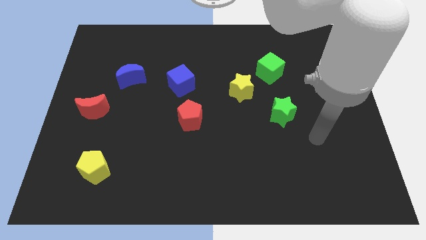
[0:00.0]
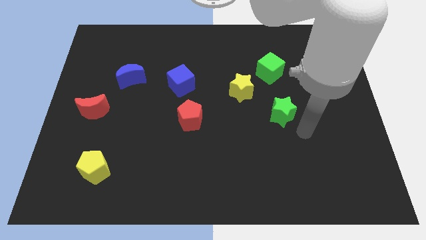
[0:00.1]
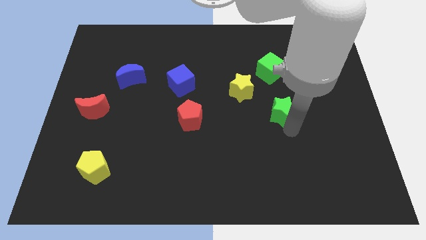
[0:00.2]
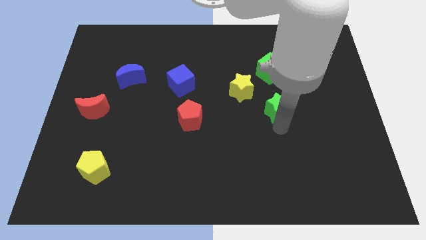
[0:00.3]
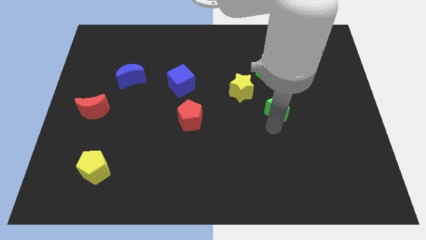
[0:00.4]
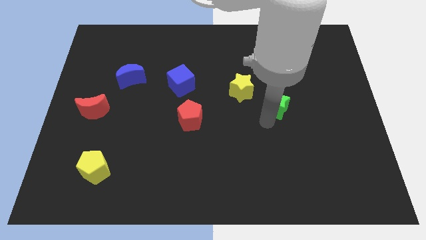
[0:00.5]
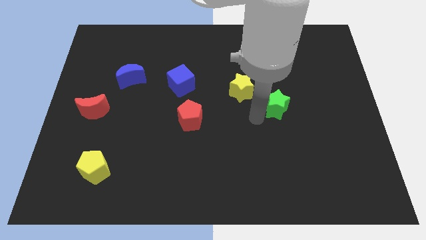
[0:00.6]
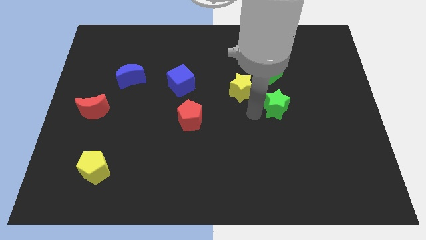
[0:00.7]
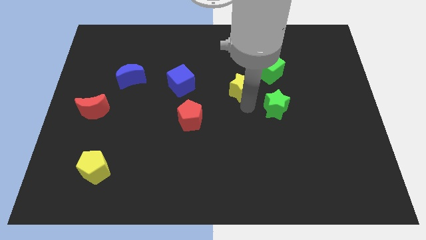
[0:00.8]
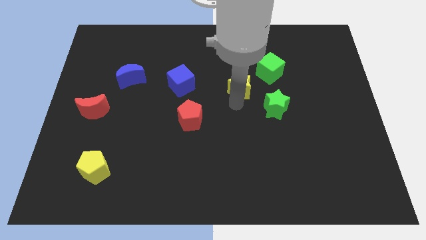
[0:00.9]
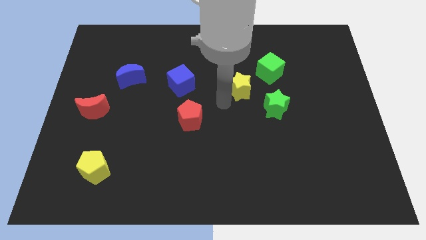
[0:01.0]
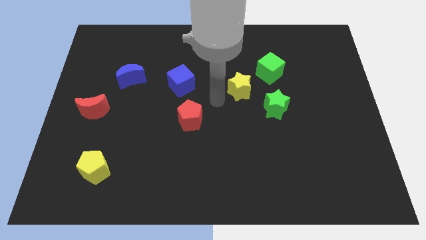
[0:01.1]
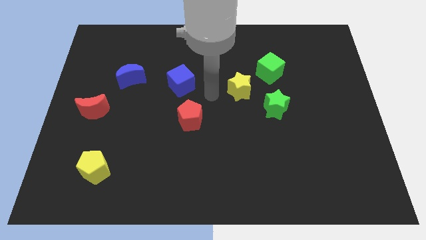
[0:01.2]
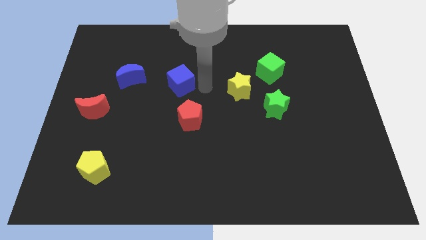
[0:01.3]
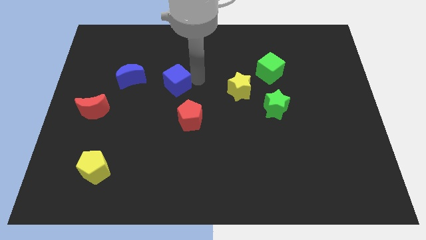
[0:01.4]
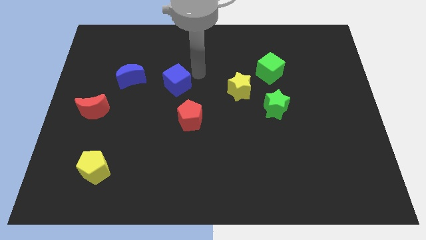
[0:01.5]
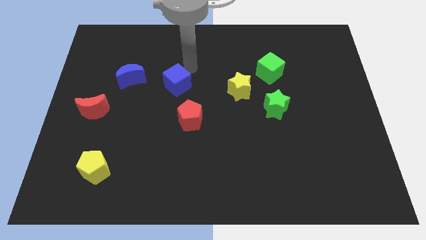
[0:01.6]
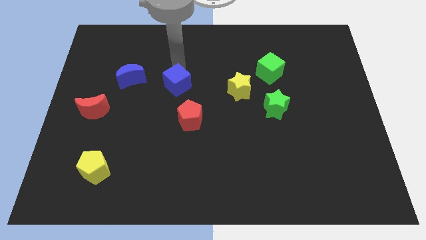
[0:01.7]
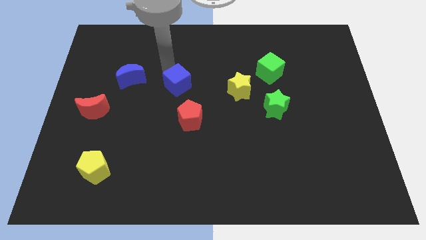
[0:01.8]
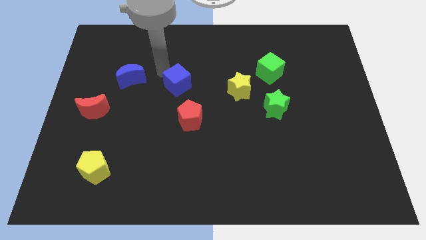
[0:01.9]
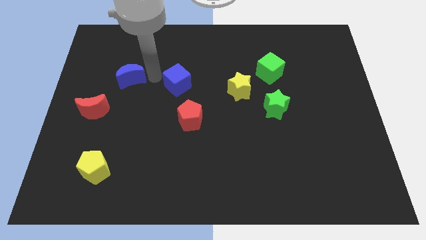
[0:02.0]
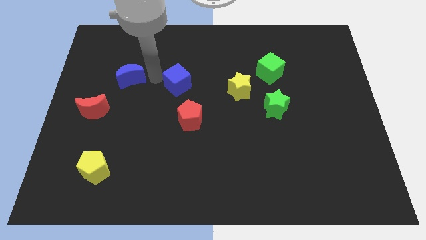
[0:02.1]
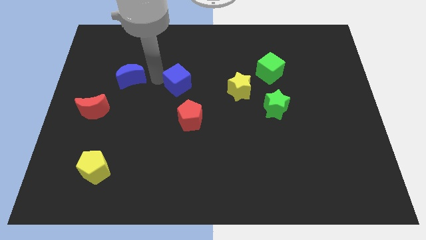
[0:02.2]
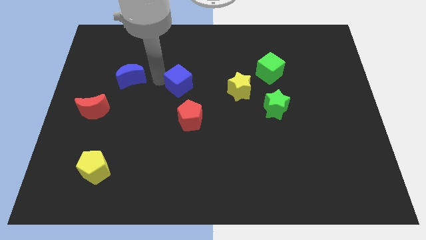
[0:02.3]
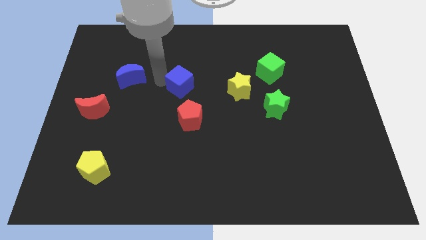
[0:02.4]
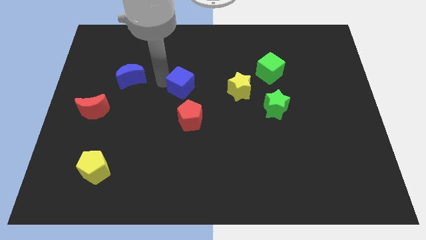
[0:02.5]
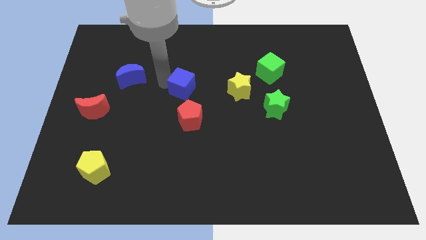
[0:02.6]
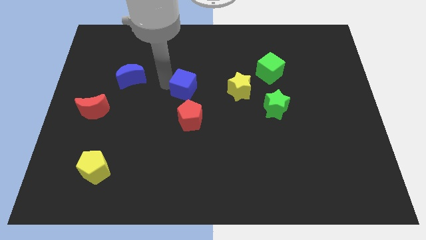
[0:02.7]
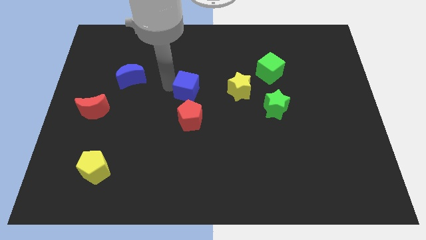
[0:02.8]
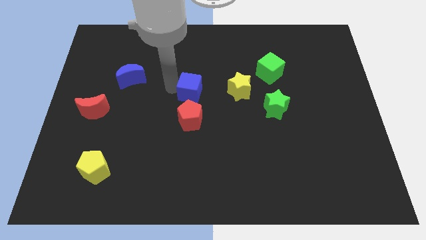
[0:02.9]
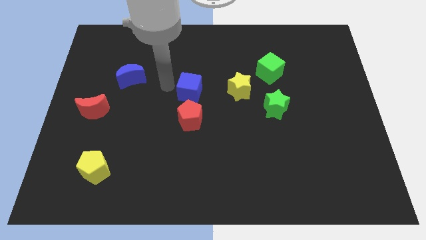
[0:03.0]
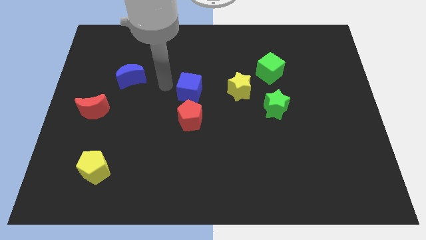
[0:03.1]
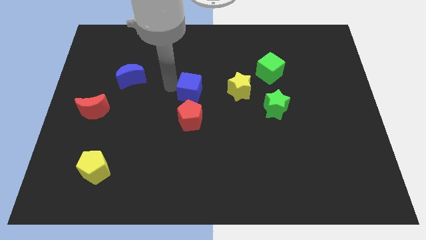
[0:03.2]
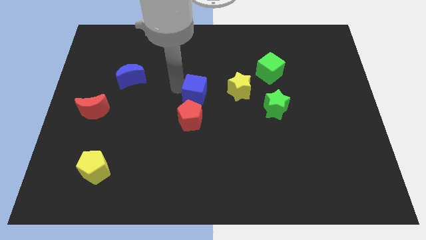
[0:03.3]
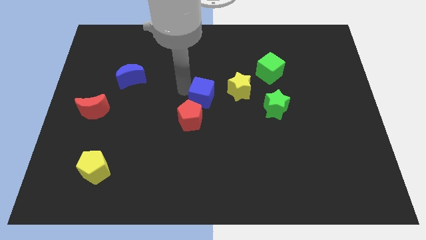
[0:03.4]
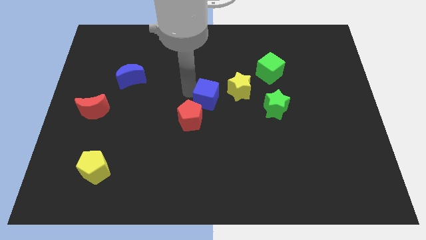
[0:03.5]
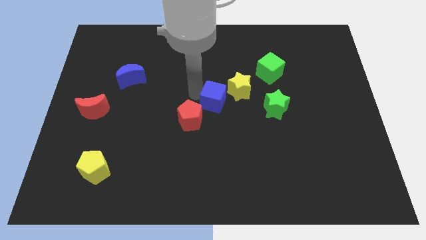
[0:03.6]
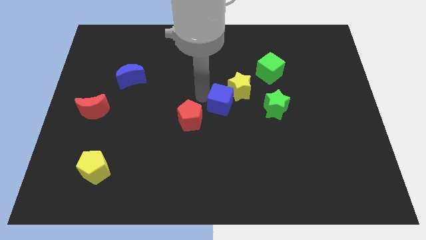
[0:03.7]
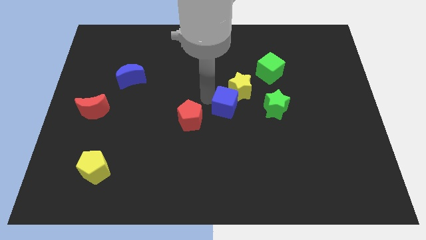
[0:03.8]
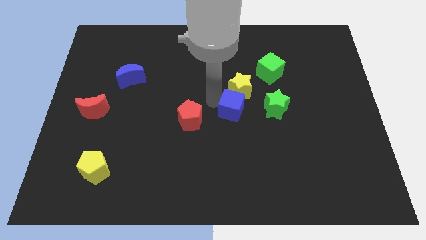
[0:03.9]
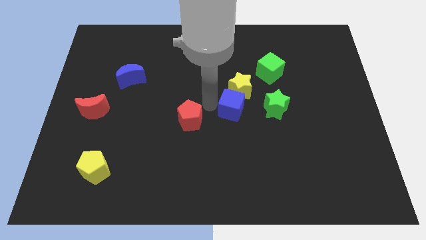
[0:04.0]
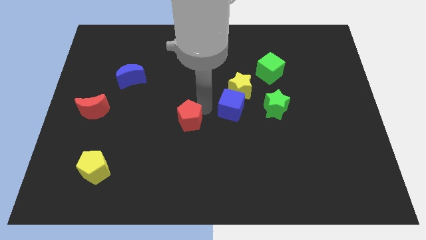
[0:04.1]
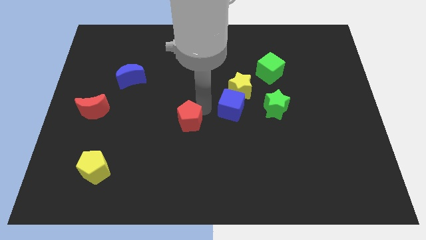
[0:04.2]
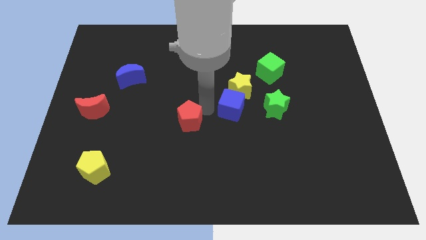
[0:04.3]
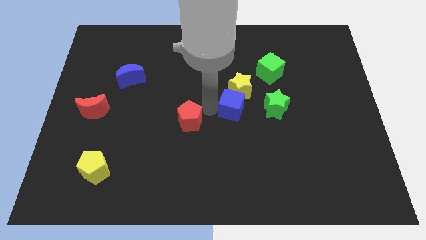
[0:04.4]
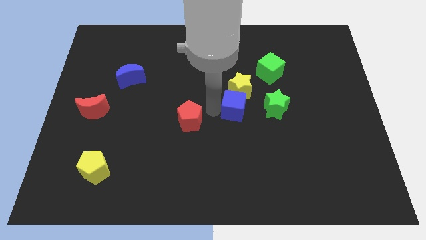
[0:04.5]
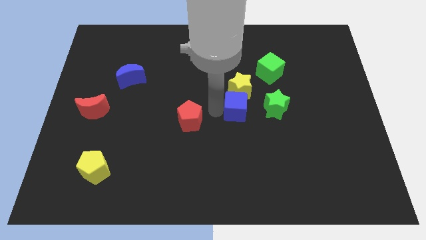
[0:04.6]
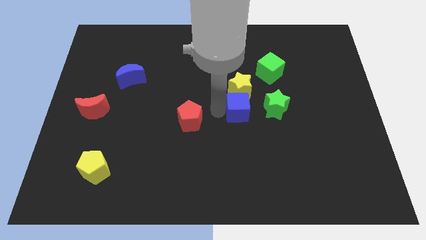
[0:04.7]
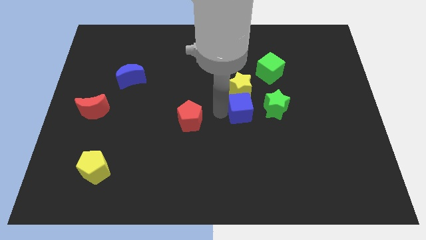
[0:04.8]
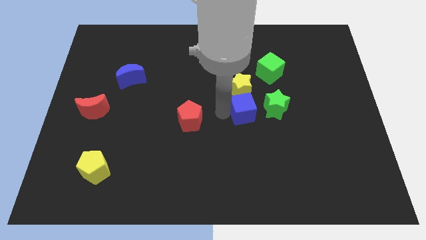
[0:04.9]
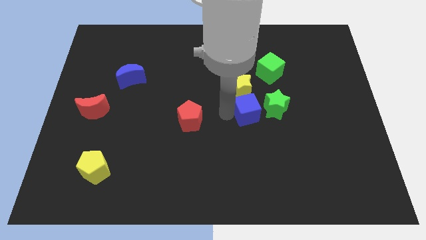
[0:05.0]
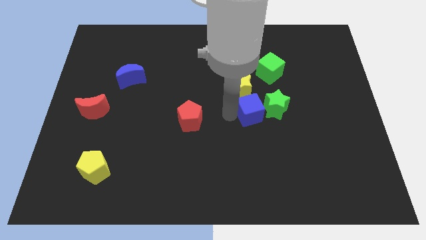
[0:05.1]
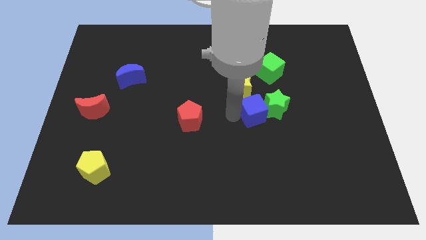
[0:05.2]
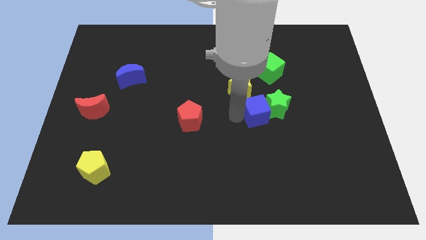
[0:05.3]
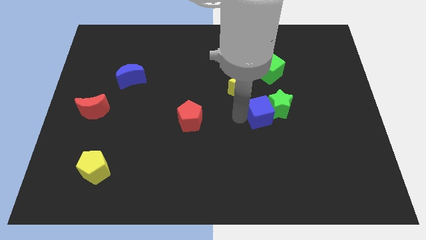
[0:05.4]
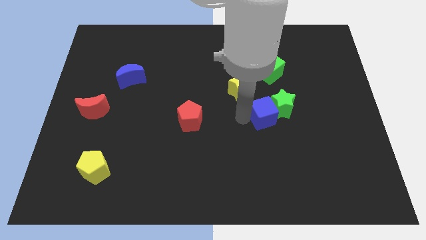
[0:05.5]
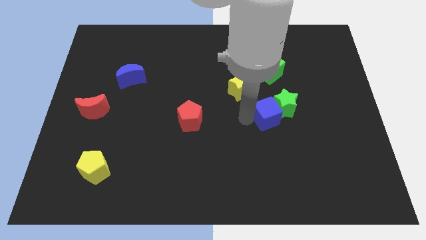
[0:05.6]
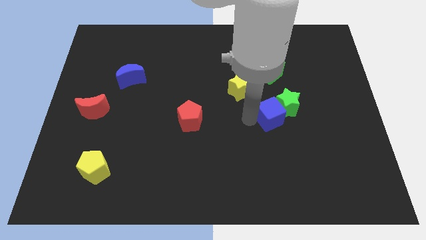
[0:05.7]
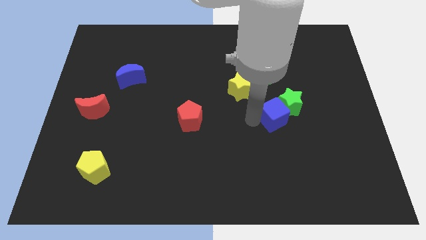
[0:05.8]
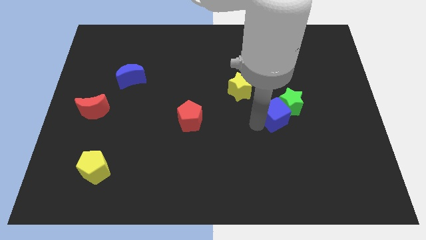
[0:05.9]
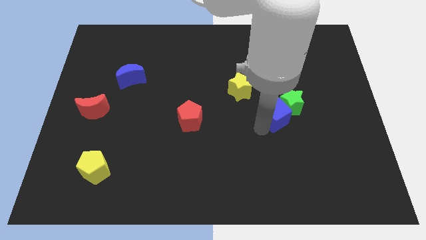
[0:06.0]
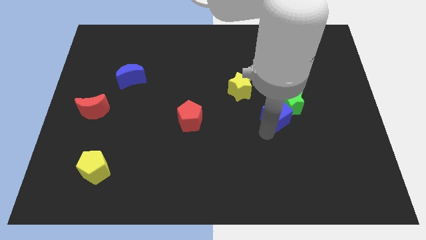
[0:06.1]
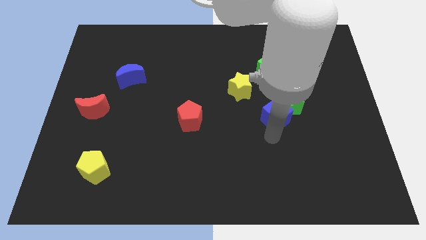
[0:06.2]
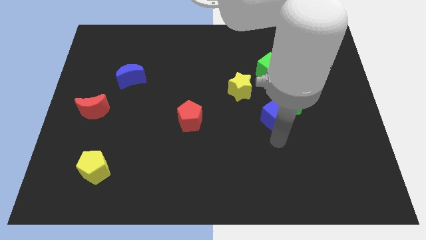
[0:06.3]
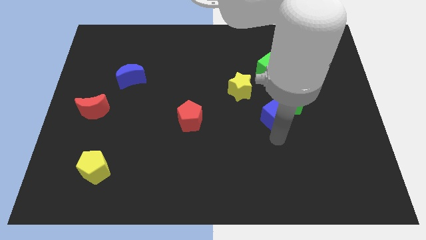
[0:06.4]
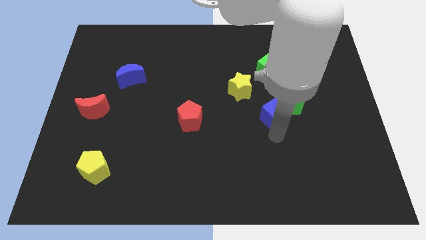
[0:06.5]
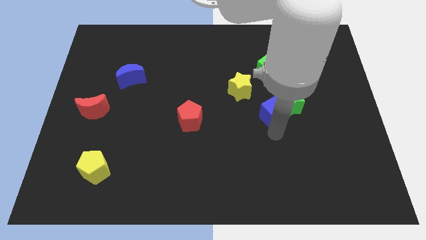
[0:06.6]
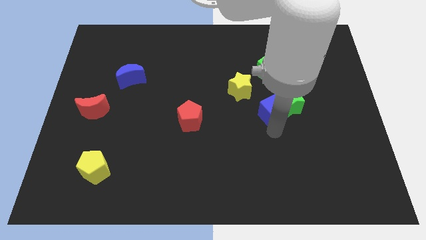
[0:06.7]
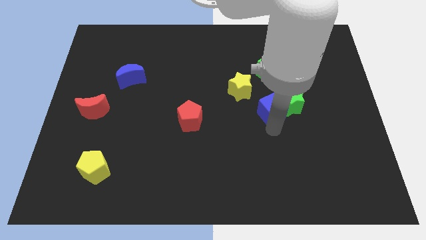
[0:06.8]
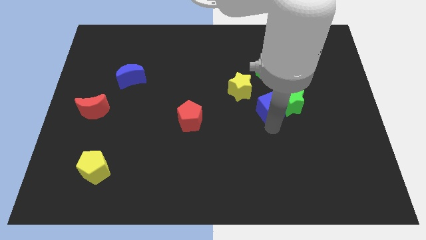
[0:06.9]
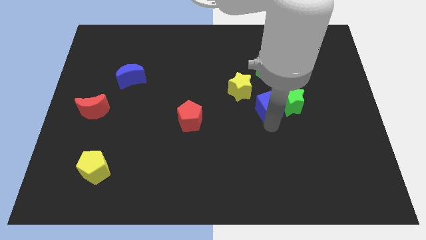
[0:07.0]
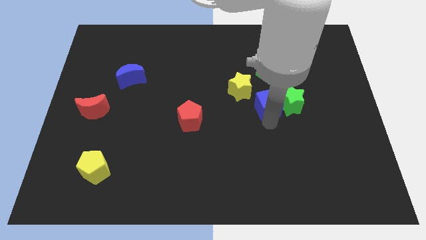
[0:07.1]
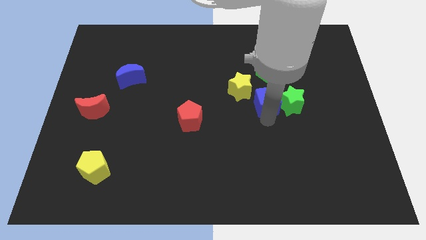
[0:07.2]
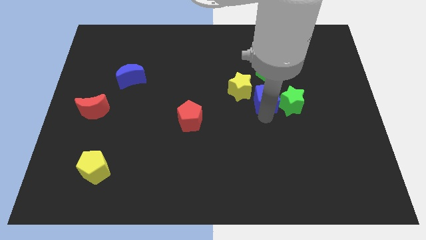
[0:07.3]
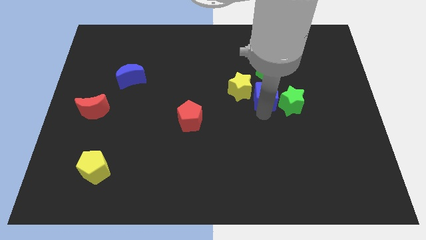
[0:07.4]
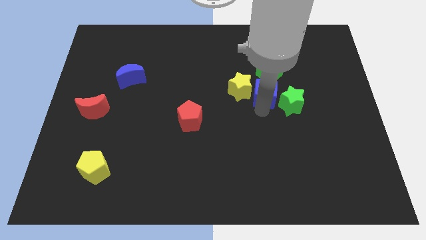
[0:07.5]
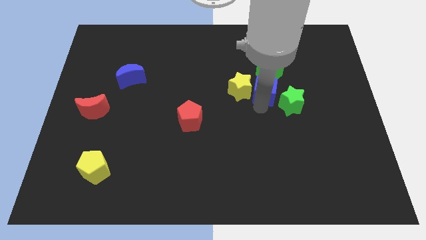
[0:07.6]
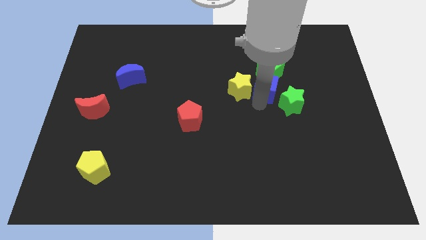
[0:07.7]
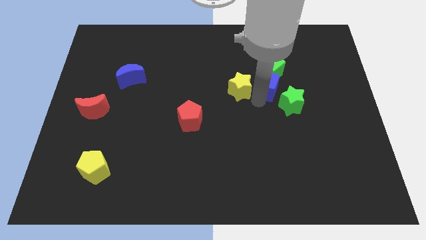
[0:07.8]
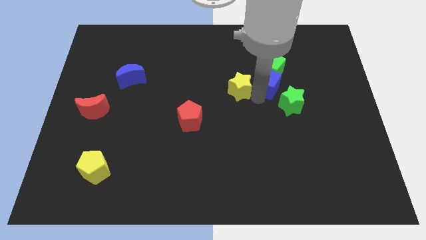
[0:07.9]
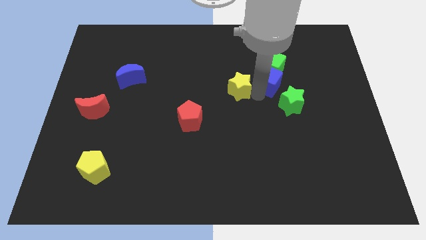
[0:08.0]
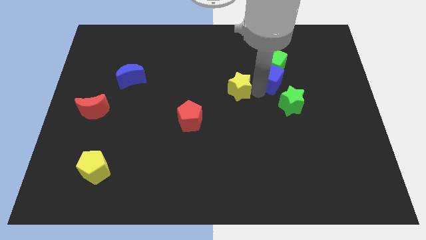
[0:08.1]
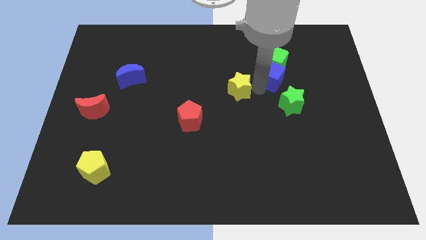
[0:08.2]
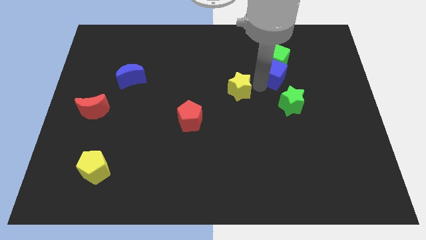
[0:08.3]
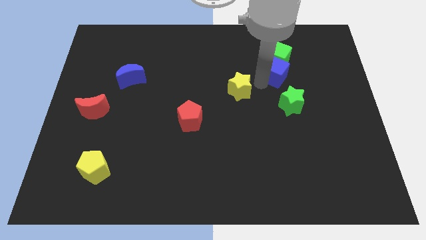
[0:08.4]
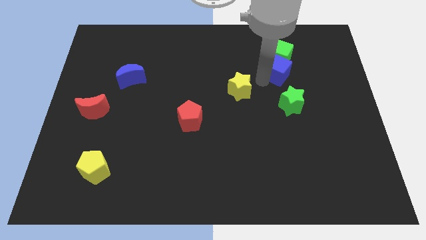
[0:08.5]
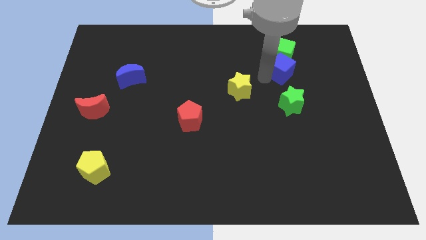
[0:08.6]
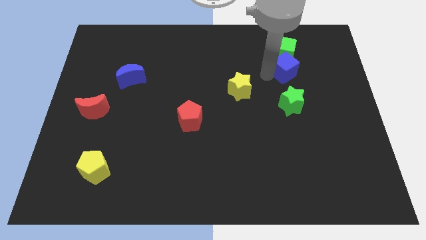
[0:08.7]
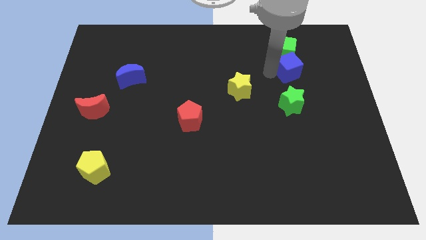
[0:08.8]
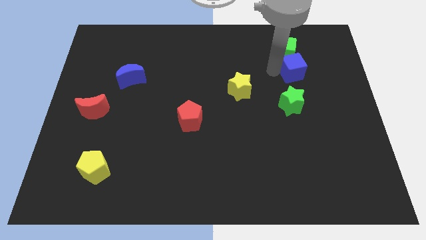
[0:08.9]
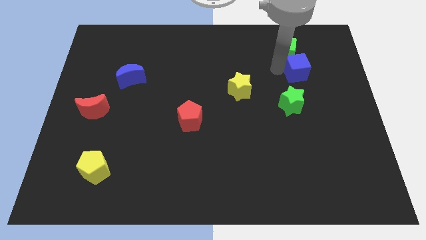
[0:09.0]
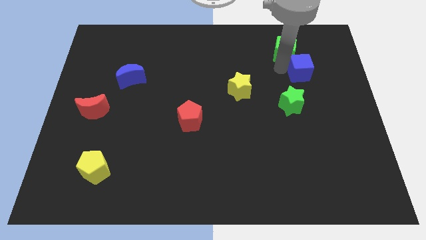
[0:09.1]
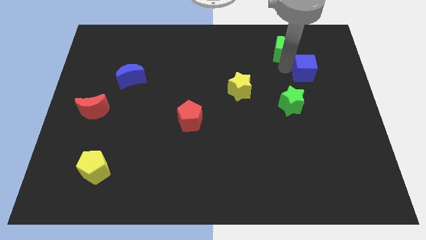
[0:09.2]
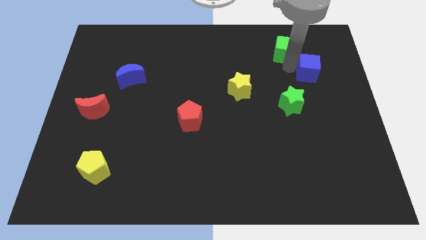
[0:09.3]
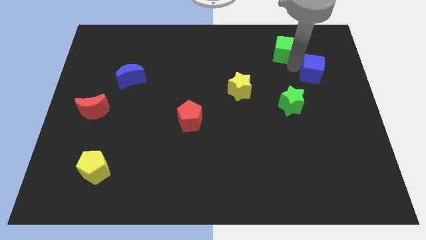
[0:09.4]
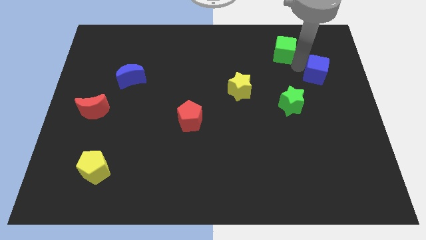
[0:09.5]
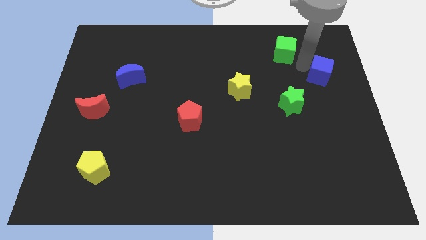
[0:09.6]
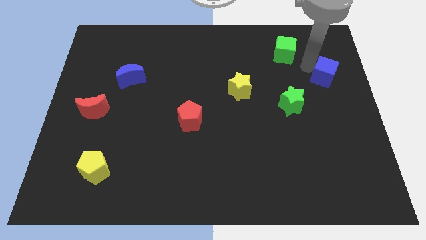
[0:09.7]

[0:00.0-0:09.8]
move the blue cube to the center right
